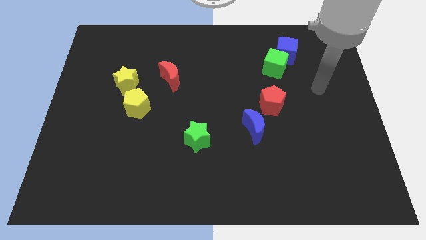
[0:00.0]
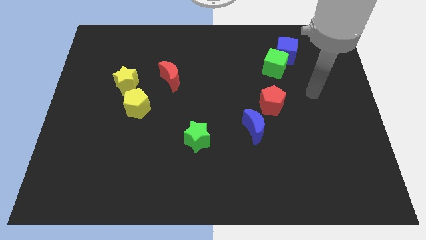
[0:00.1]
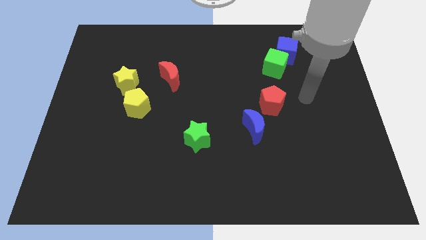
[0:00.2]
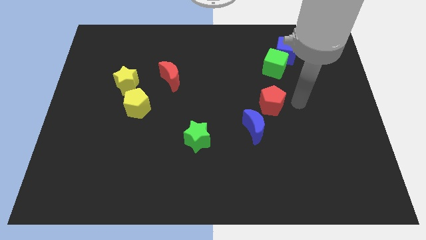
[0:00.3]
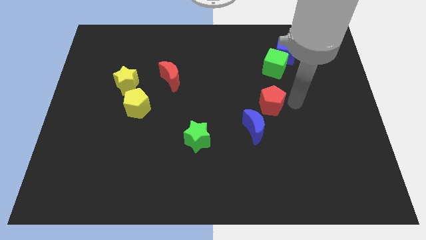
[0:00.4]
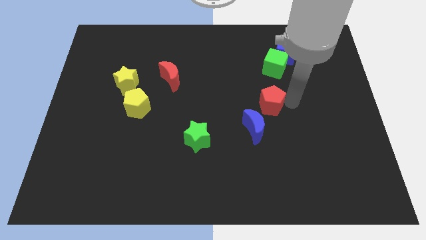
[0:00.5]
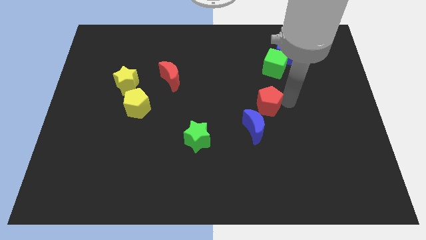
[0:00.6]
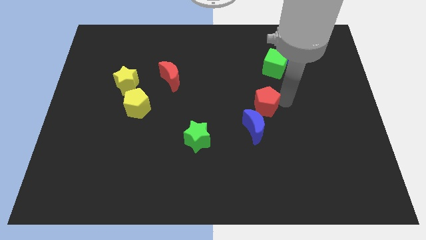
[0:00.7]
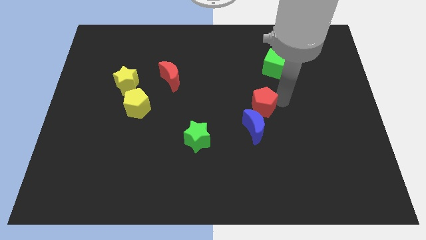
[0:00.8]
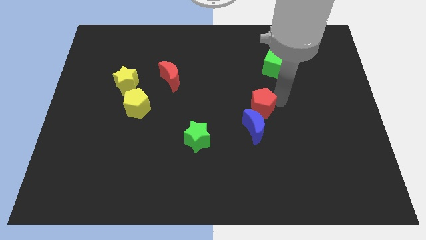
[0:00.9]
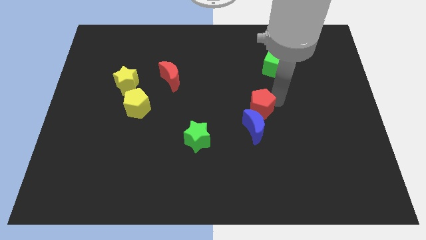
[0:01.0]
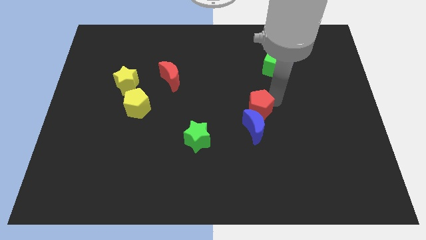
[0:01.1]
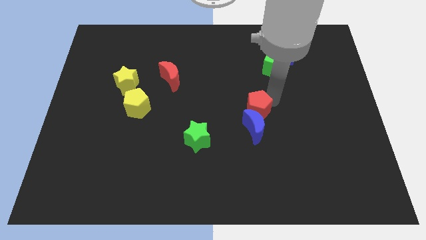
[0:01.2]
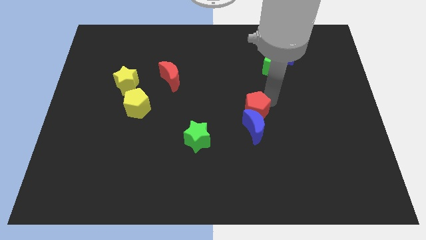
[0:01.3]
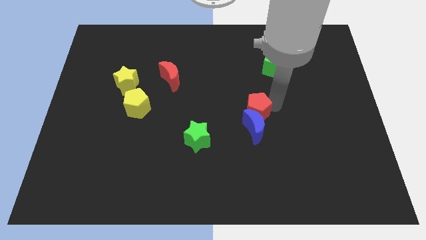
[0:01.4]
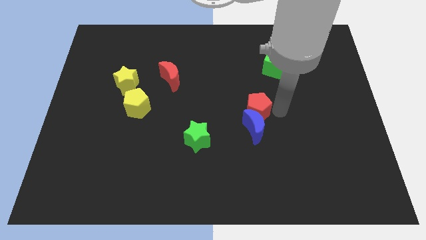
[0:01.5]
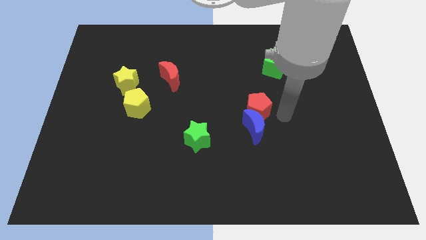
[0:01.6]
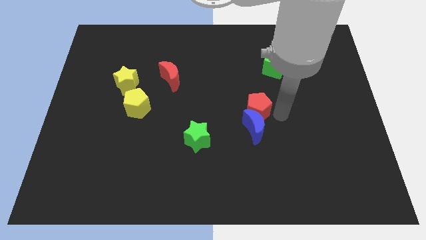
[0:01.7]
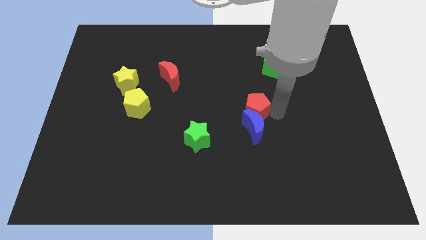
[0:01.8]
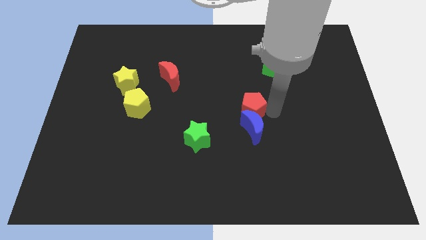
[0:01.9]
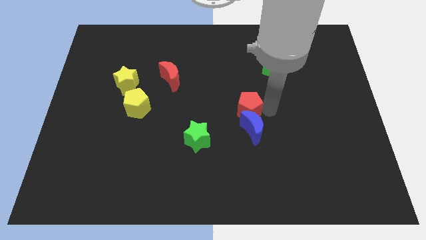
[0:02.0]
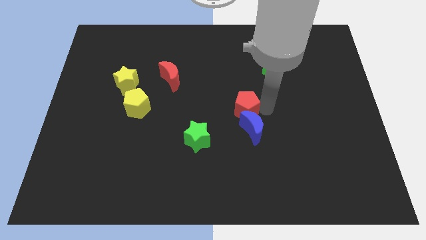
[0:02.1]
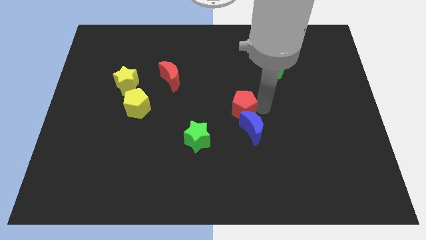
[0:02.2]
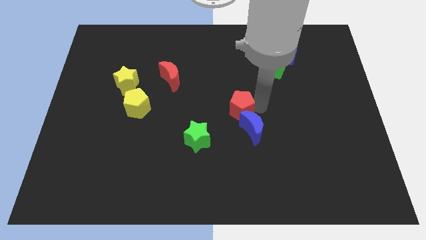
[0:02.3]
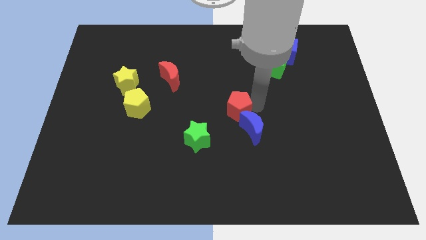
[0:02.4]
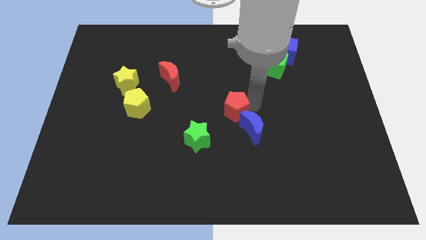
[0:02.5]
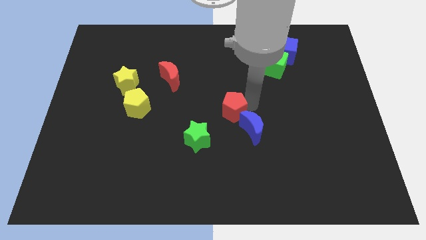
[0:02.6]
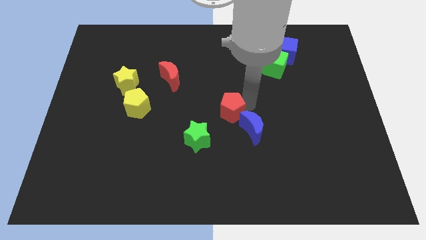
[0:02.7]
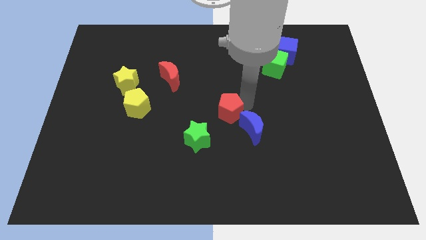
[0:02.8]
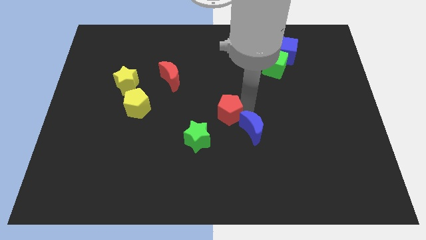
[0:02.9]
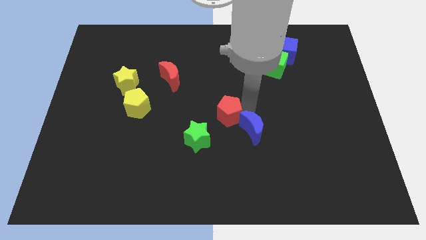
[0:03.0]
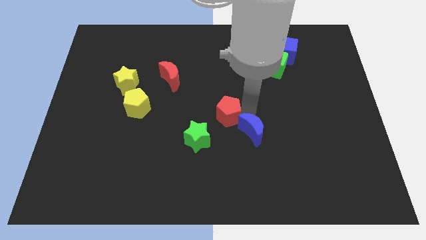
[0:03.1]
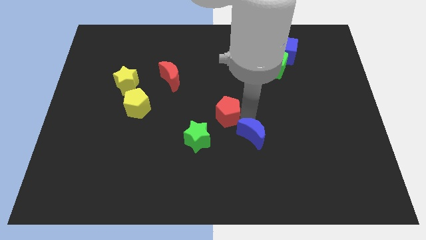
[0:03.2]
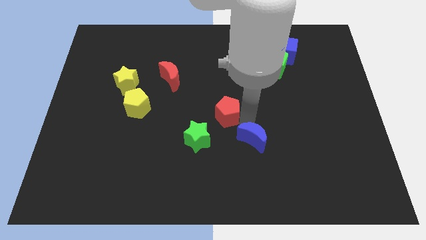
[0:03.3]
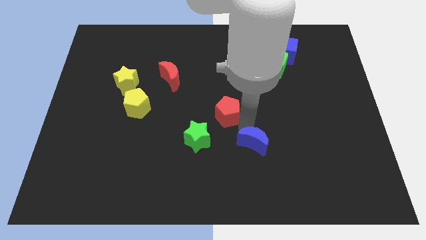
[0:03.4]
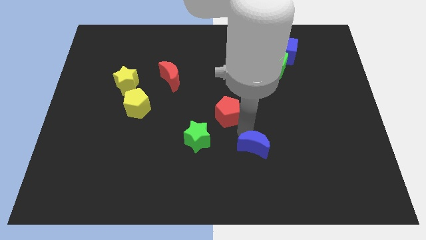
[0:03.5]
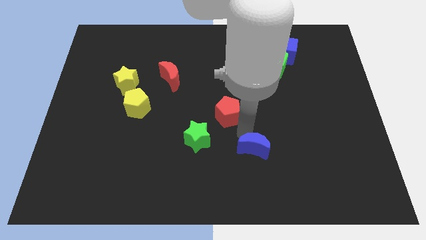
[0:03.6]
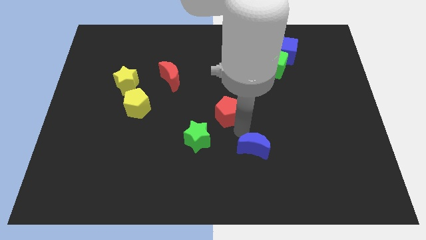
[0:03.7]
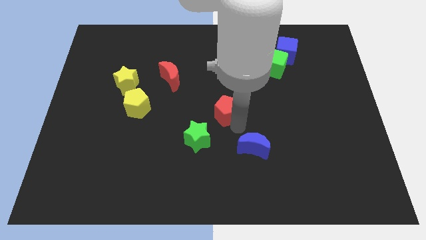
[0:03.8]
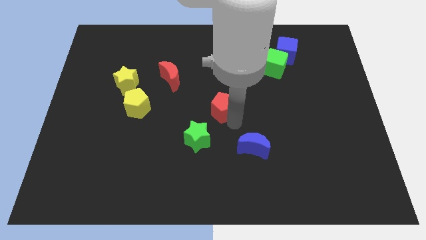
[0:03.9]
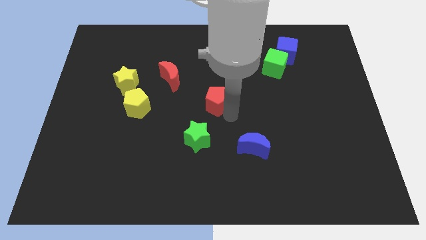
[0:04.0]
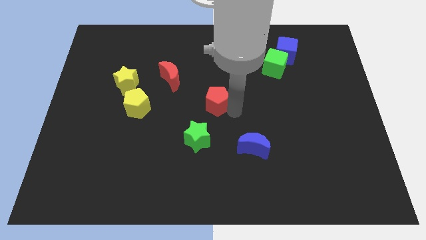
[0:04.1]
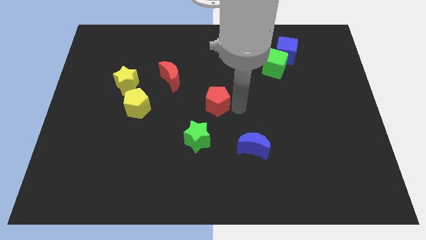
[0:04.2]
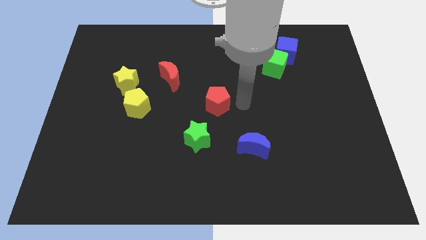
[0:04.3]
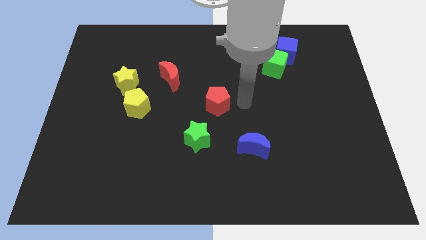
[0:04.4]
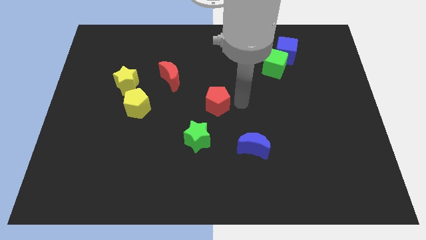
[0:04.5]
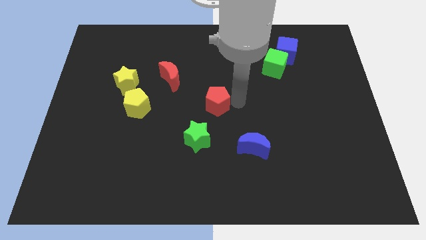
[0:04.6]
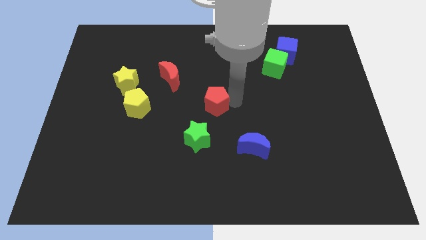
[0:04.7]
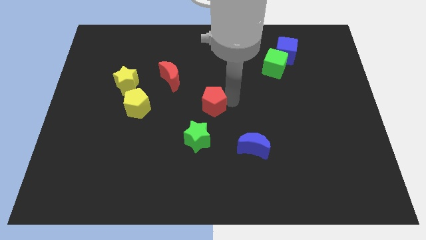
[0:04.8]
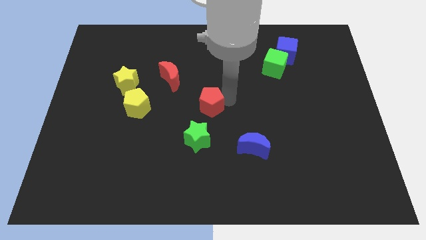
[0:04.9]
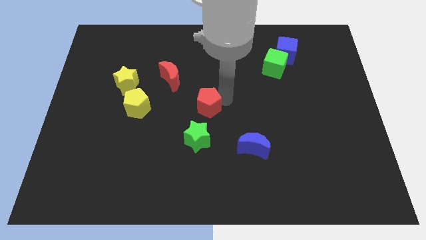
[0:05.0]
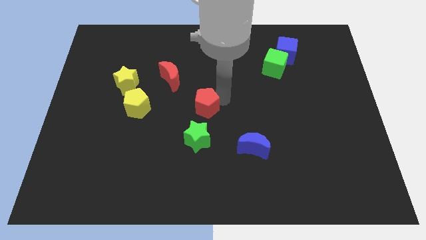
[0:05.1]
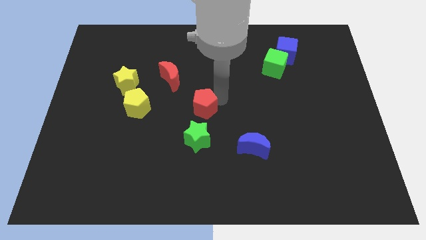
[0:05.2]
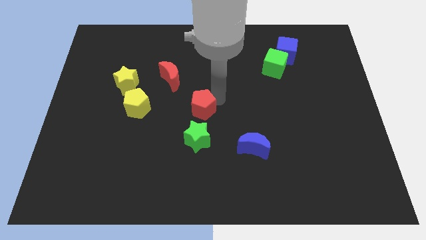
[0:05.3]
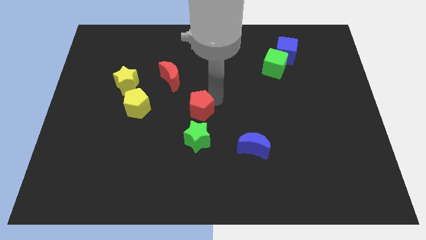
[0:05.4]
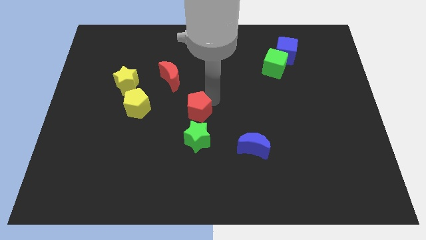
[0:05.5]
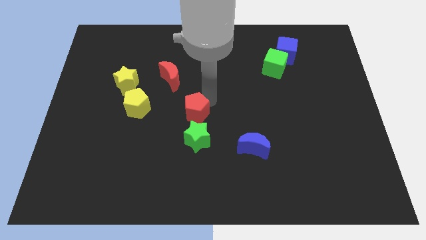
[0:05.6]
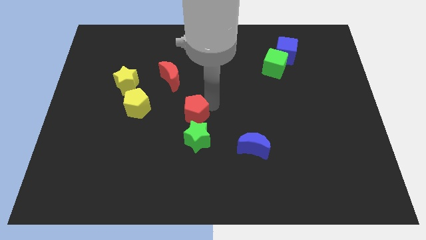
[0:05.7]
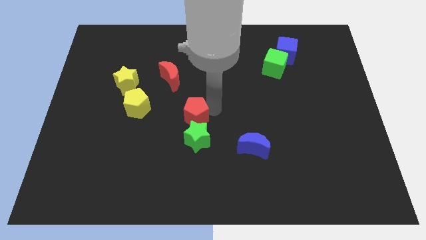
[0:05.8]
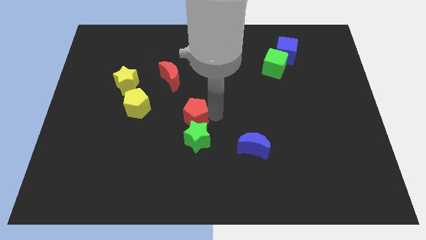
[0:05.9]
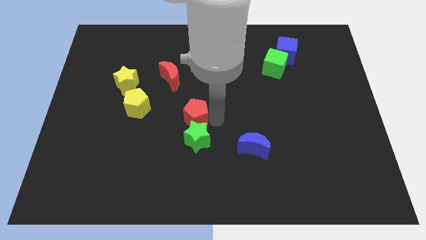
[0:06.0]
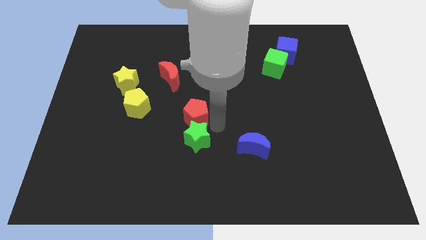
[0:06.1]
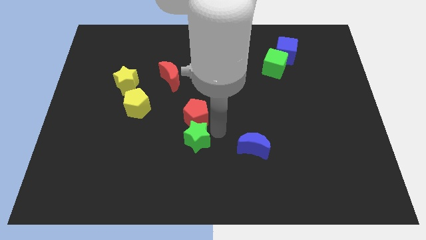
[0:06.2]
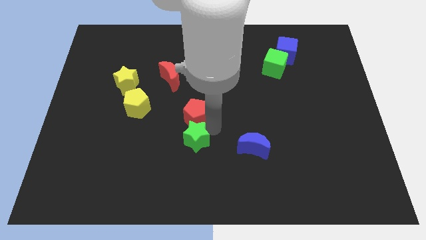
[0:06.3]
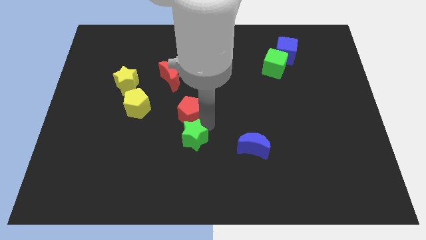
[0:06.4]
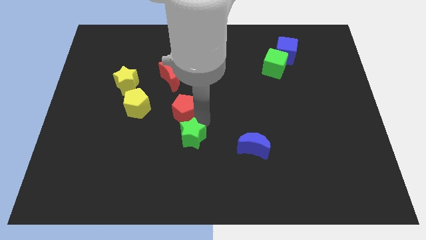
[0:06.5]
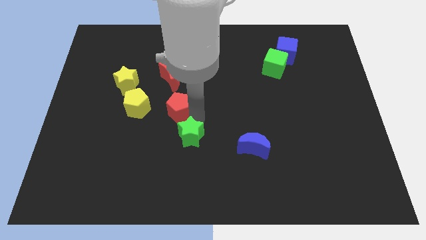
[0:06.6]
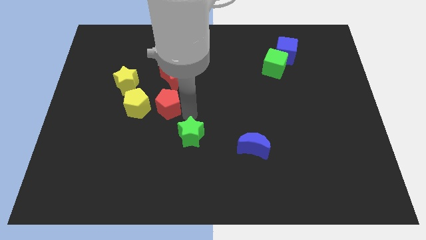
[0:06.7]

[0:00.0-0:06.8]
slide the red pentagon to the bottom right of the yellow star

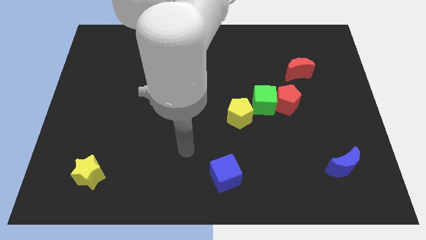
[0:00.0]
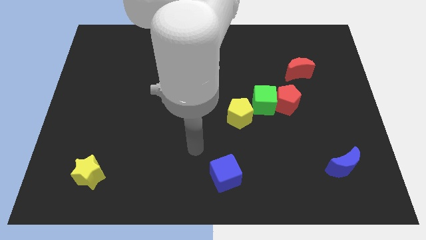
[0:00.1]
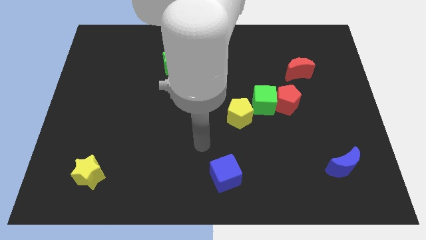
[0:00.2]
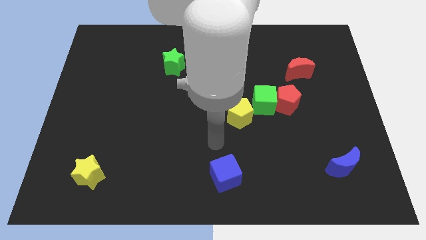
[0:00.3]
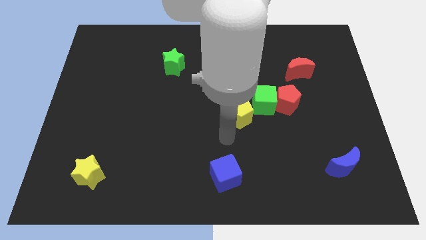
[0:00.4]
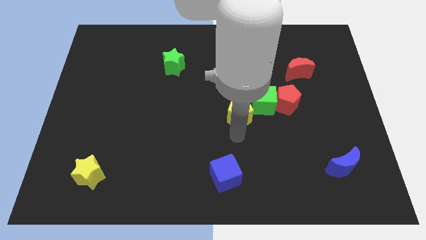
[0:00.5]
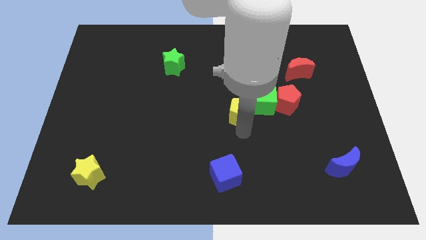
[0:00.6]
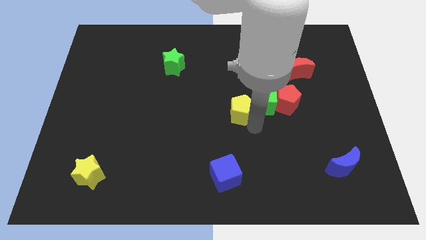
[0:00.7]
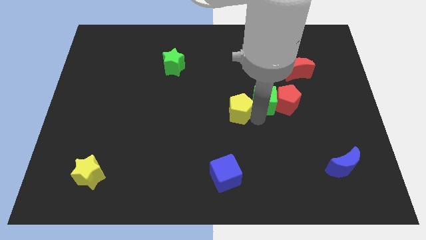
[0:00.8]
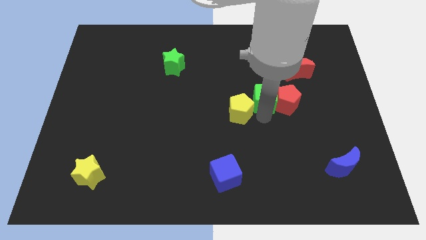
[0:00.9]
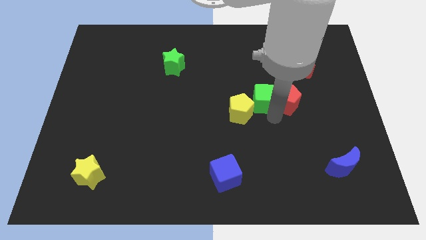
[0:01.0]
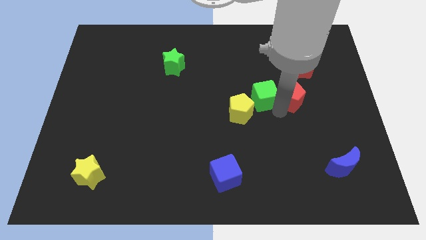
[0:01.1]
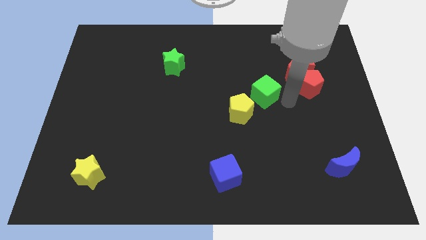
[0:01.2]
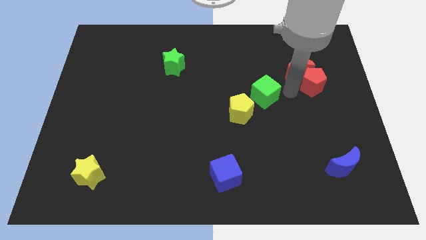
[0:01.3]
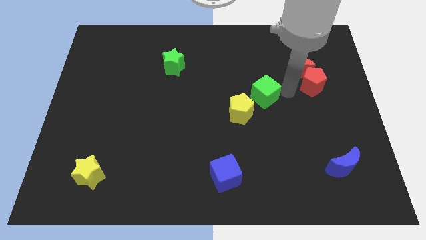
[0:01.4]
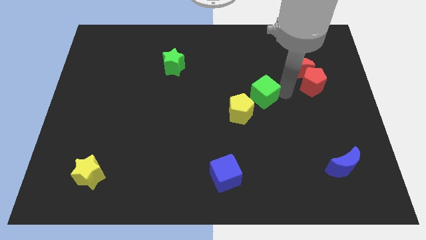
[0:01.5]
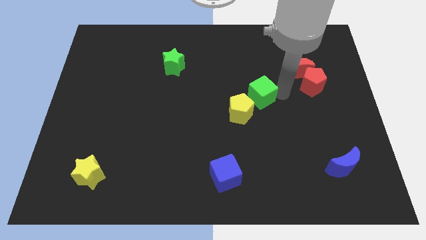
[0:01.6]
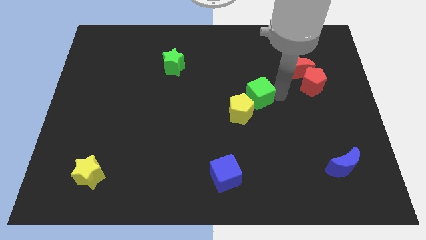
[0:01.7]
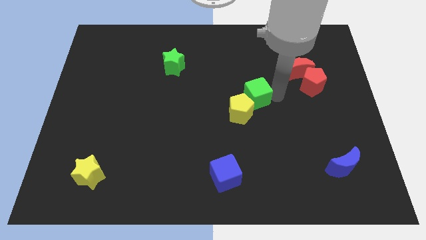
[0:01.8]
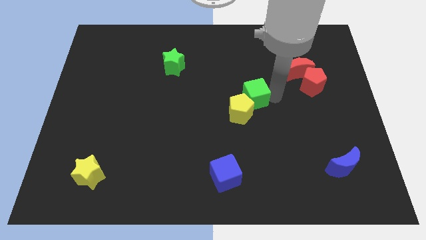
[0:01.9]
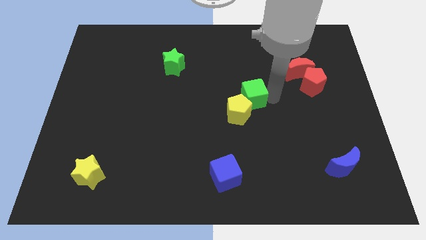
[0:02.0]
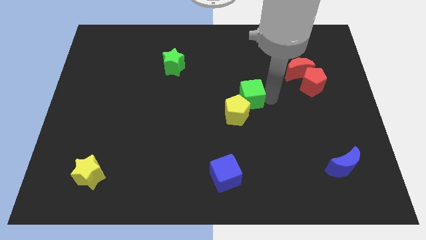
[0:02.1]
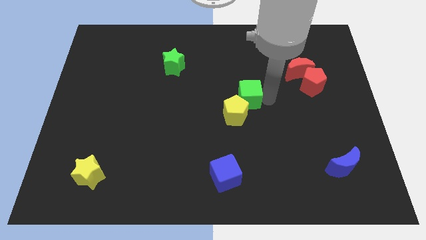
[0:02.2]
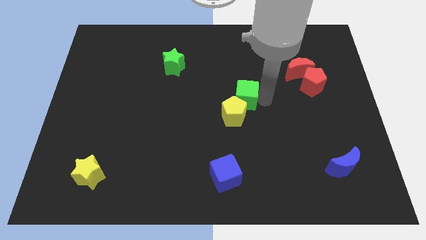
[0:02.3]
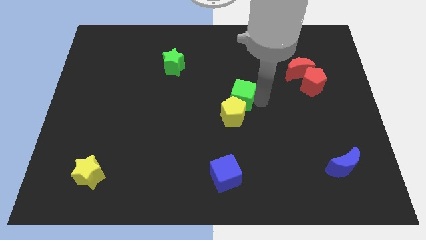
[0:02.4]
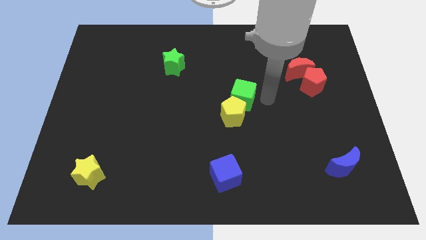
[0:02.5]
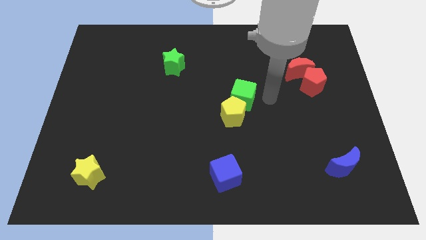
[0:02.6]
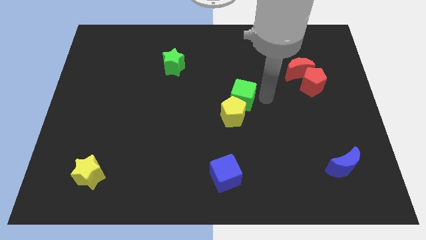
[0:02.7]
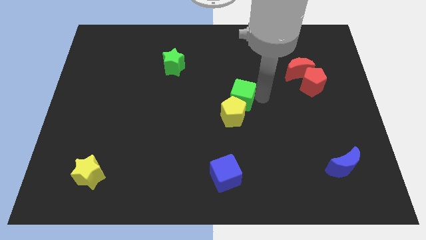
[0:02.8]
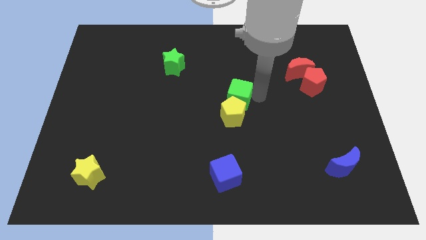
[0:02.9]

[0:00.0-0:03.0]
push the green cube diagonally up and to the left of the yellow pentagon
